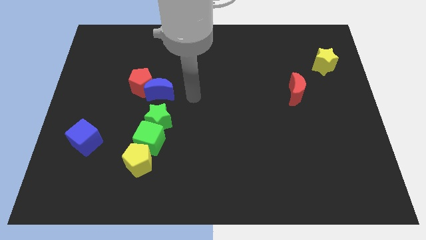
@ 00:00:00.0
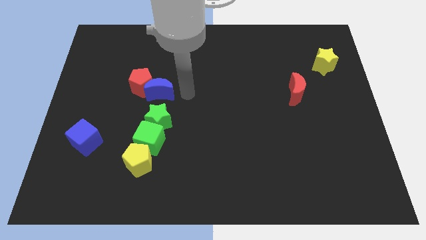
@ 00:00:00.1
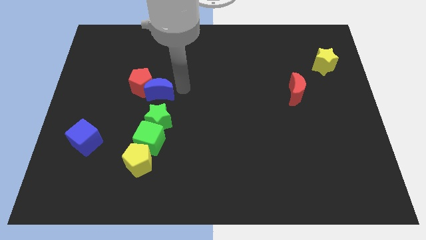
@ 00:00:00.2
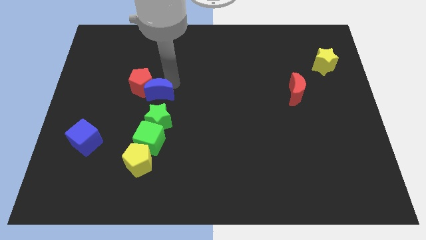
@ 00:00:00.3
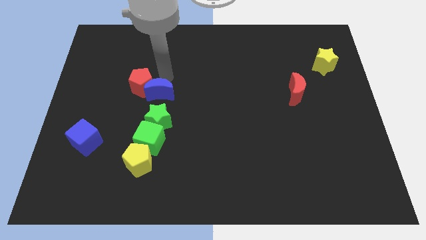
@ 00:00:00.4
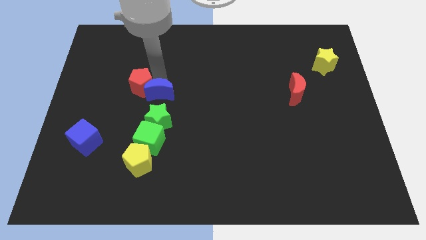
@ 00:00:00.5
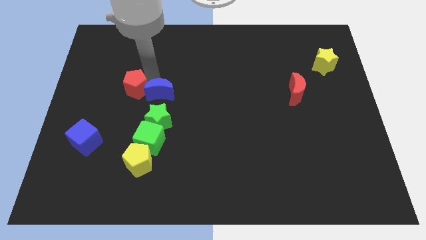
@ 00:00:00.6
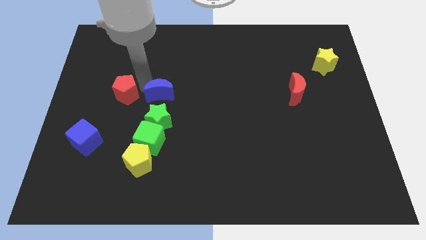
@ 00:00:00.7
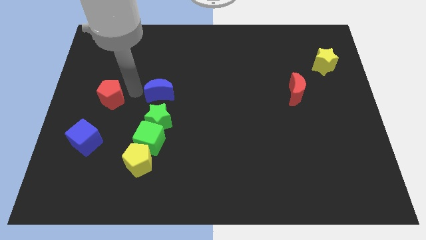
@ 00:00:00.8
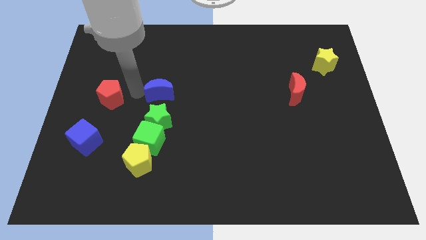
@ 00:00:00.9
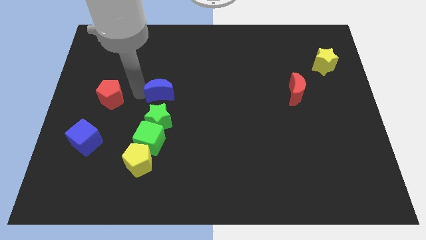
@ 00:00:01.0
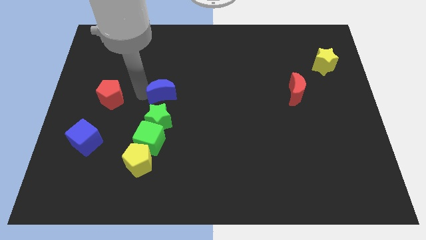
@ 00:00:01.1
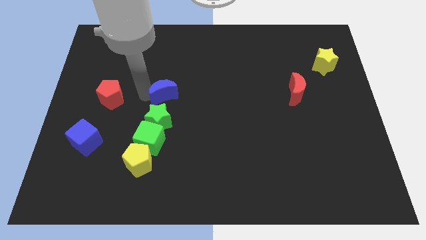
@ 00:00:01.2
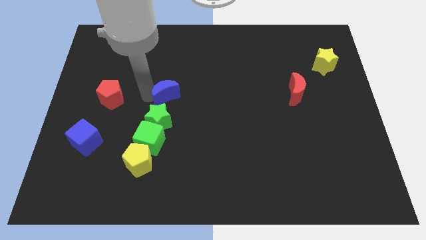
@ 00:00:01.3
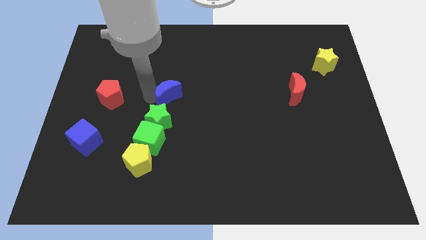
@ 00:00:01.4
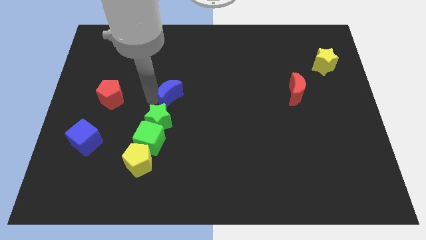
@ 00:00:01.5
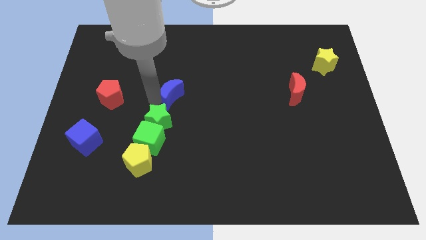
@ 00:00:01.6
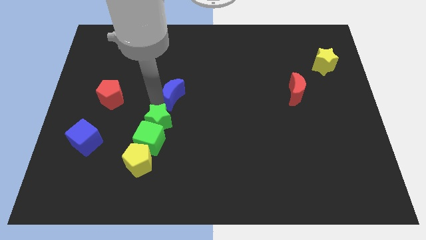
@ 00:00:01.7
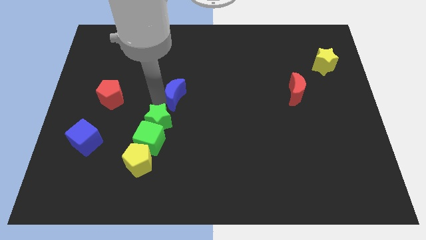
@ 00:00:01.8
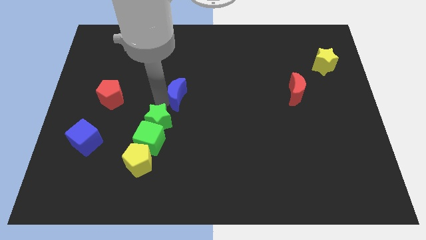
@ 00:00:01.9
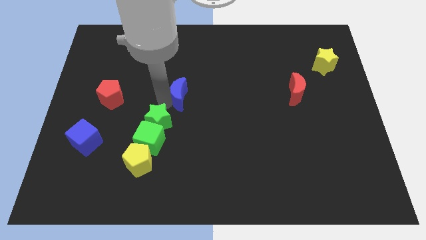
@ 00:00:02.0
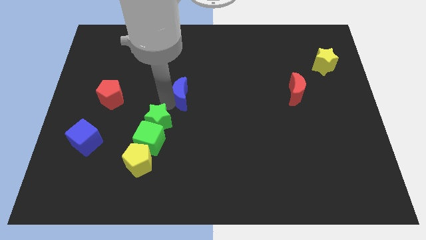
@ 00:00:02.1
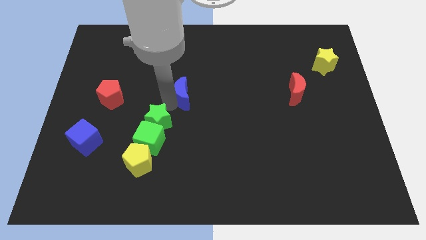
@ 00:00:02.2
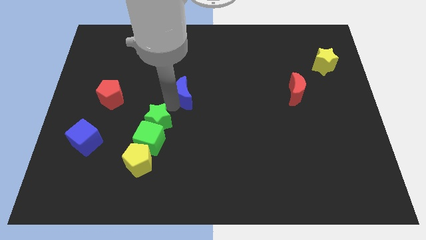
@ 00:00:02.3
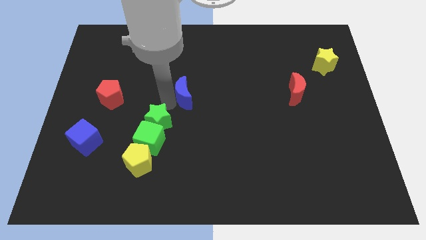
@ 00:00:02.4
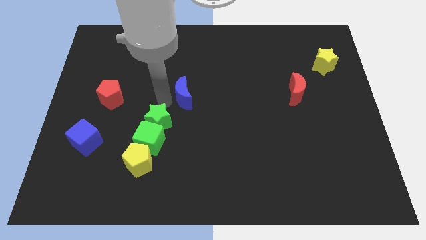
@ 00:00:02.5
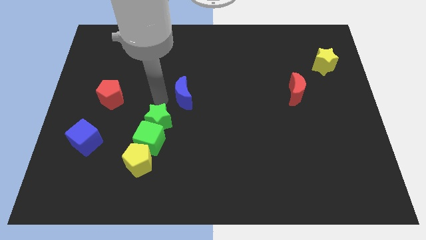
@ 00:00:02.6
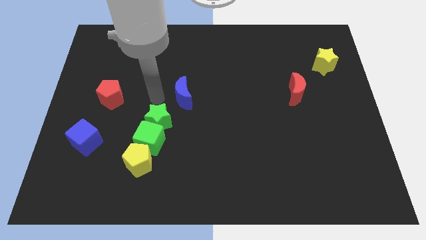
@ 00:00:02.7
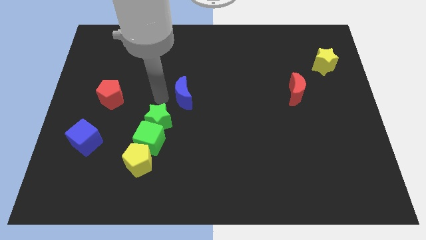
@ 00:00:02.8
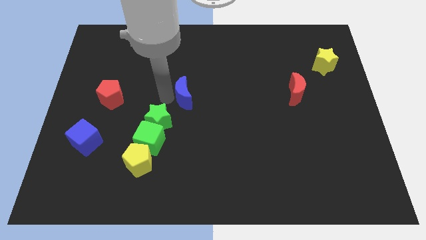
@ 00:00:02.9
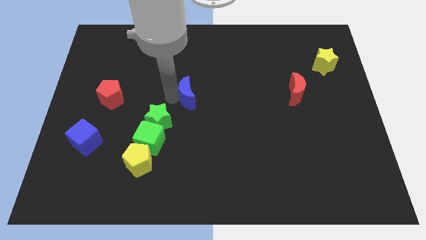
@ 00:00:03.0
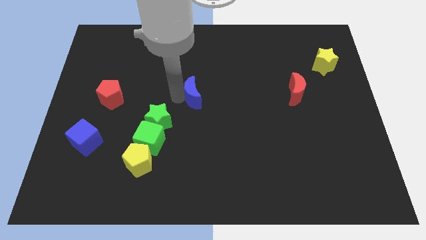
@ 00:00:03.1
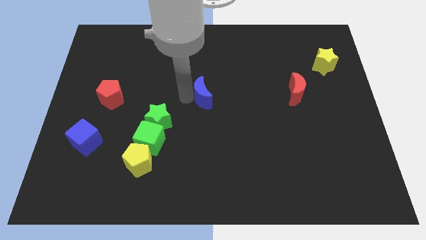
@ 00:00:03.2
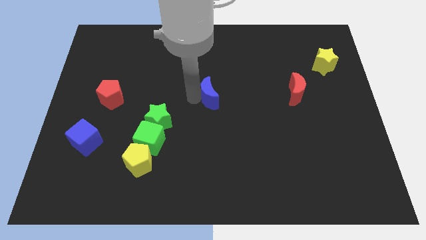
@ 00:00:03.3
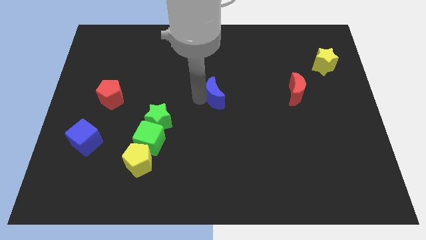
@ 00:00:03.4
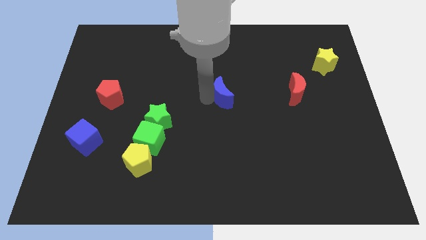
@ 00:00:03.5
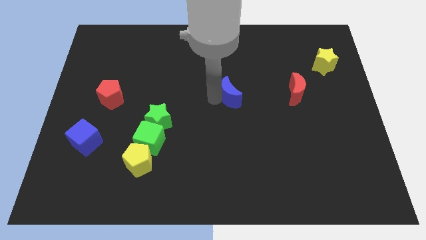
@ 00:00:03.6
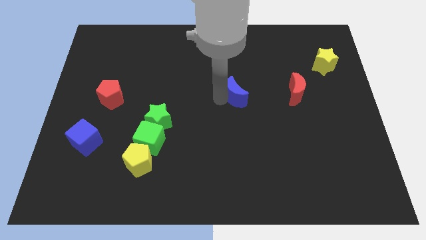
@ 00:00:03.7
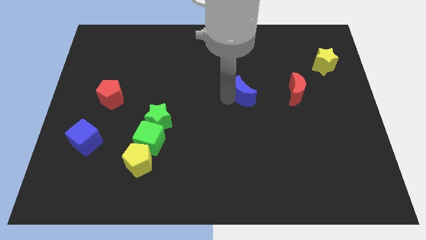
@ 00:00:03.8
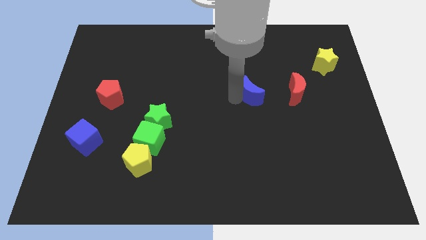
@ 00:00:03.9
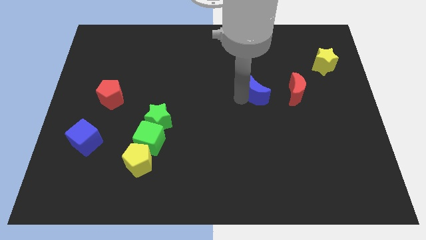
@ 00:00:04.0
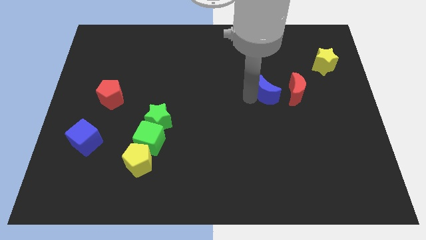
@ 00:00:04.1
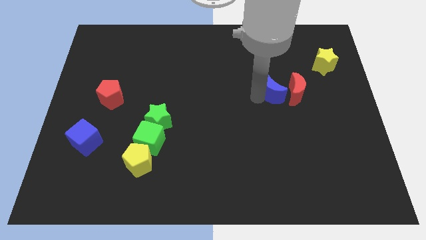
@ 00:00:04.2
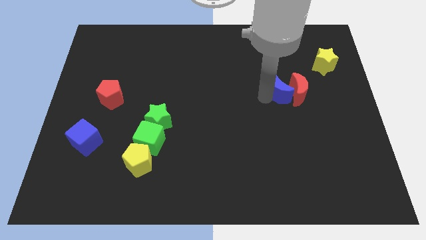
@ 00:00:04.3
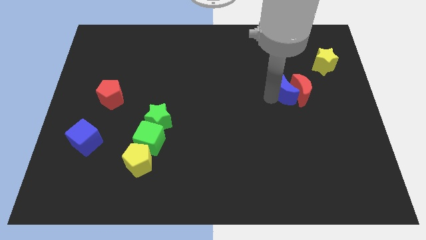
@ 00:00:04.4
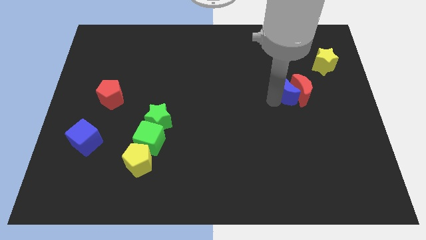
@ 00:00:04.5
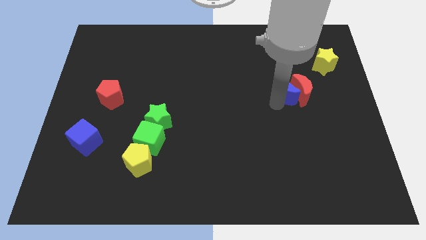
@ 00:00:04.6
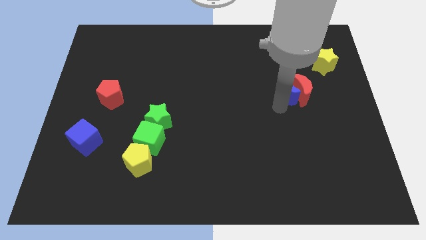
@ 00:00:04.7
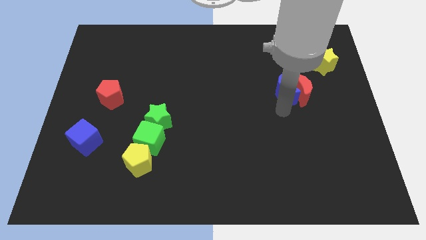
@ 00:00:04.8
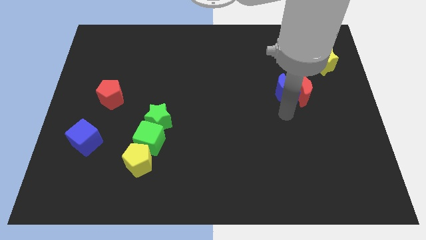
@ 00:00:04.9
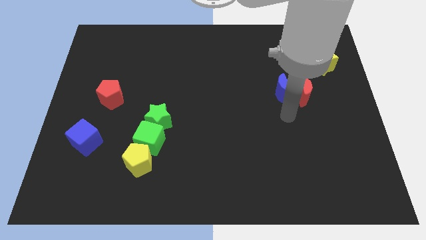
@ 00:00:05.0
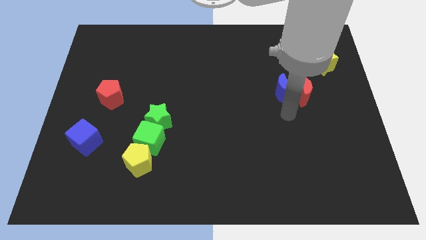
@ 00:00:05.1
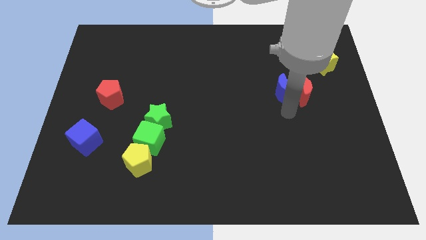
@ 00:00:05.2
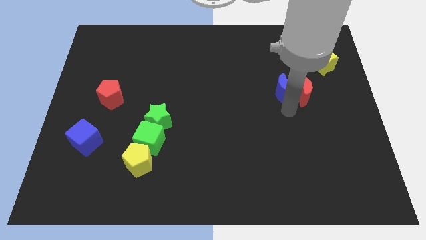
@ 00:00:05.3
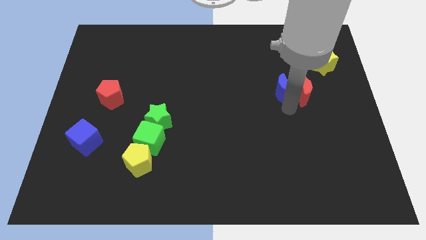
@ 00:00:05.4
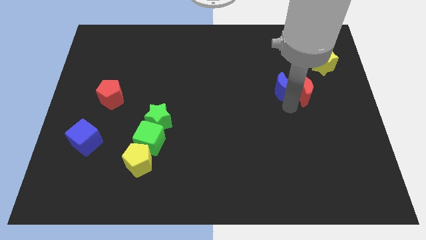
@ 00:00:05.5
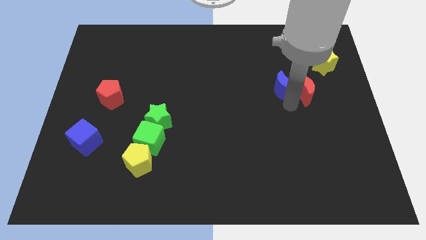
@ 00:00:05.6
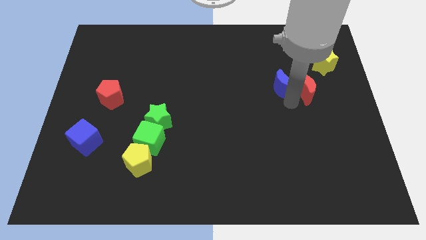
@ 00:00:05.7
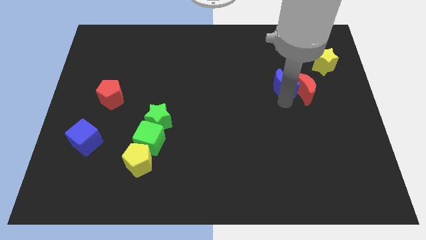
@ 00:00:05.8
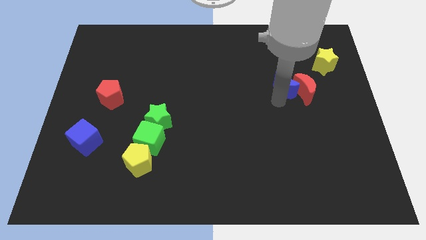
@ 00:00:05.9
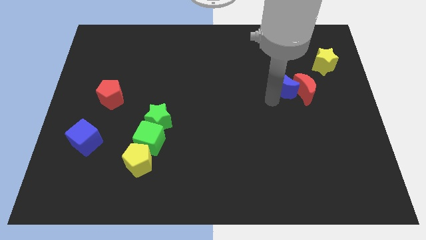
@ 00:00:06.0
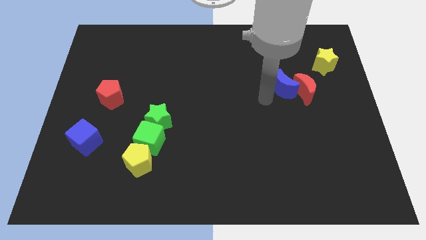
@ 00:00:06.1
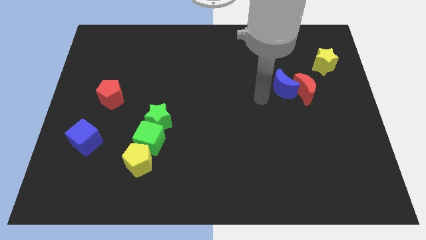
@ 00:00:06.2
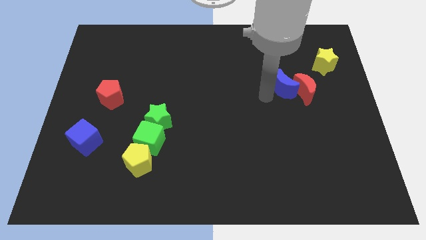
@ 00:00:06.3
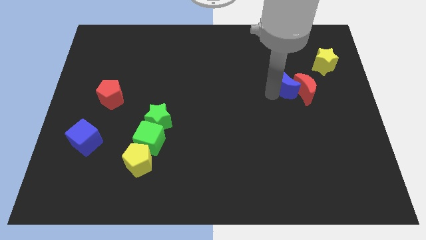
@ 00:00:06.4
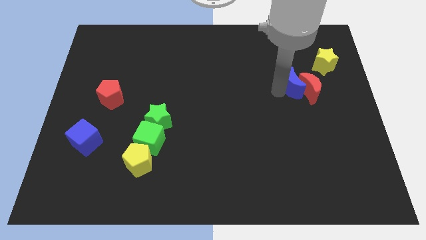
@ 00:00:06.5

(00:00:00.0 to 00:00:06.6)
slide the blue moon diagonally down and to the left of the yellow star
